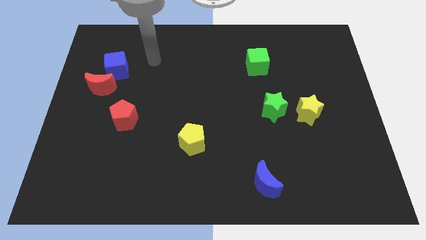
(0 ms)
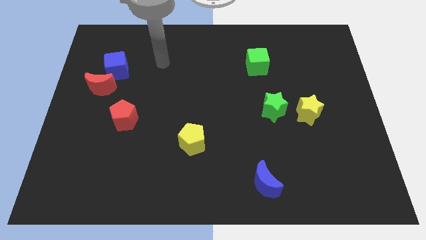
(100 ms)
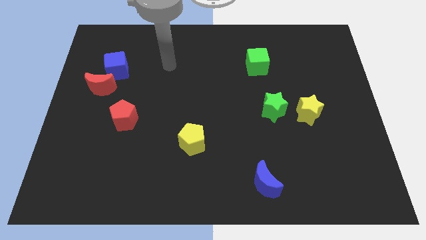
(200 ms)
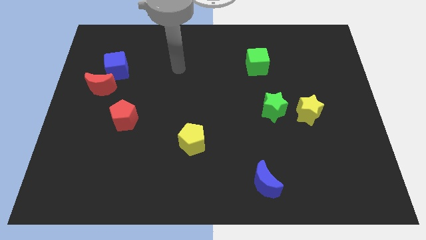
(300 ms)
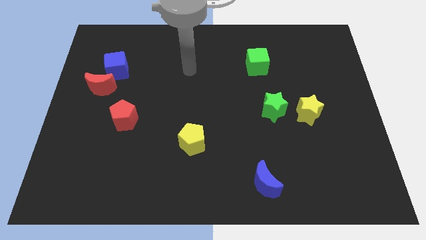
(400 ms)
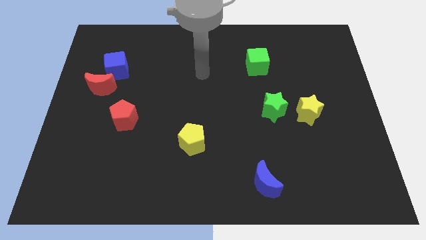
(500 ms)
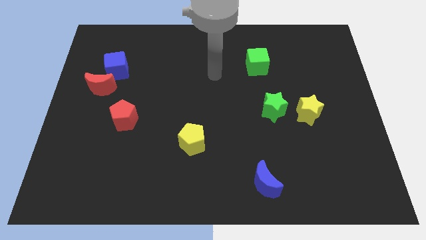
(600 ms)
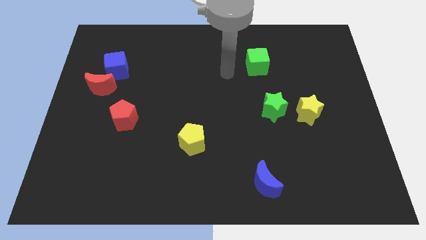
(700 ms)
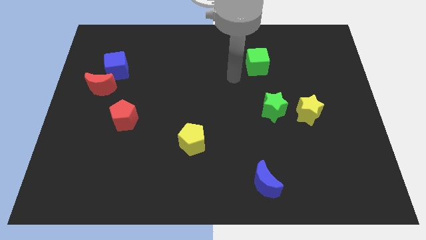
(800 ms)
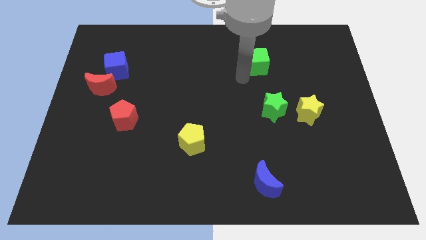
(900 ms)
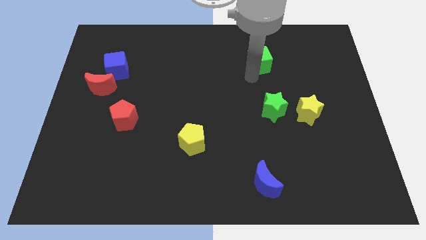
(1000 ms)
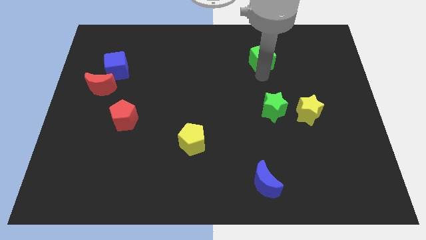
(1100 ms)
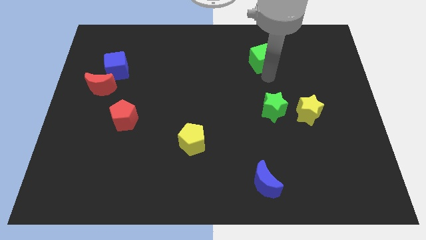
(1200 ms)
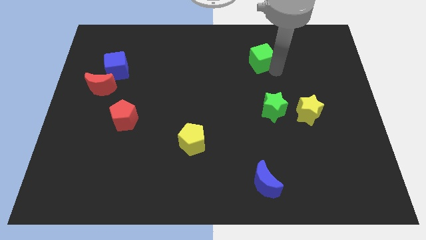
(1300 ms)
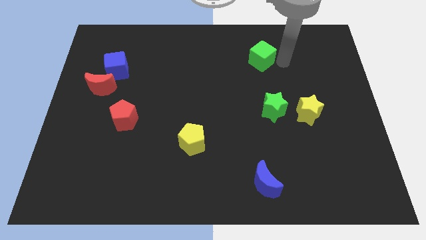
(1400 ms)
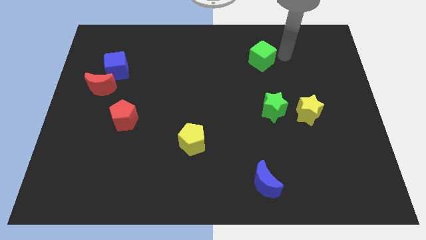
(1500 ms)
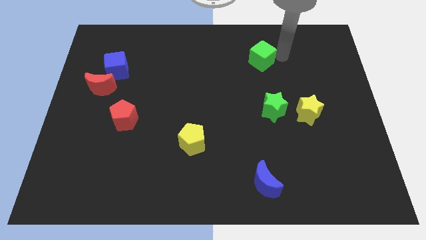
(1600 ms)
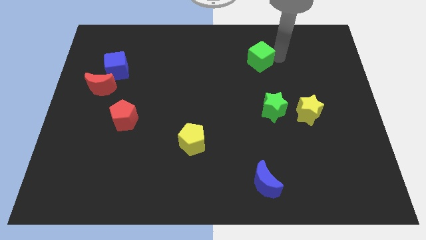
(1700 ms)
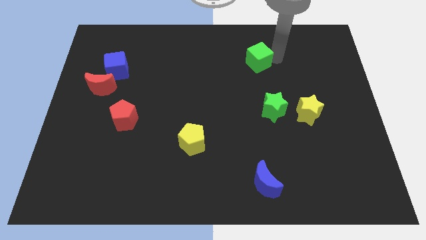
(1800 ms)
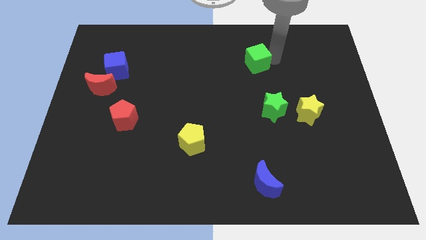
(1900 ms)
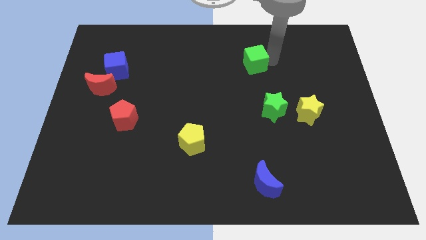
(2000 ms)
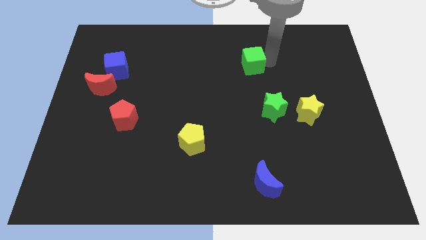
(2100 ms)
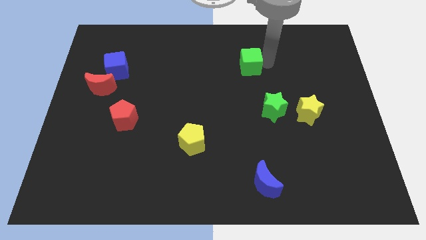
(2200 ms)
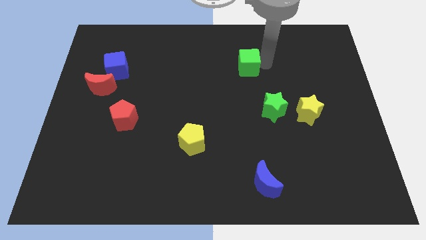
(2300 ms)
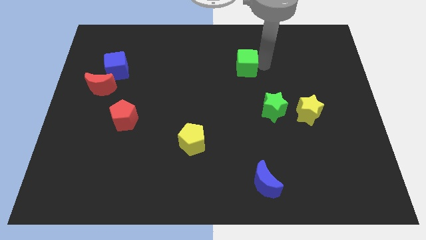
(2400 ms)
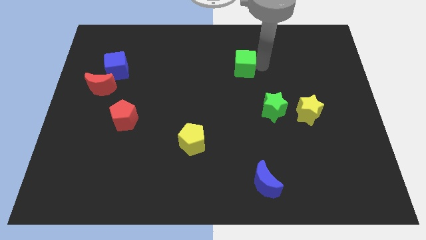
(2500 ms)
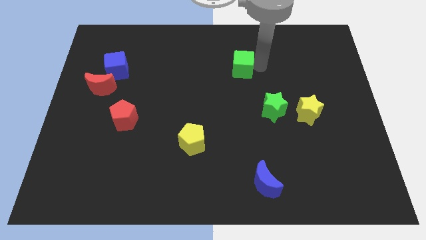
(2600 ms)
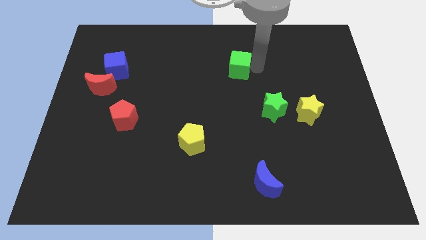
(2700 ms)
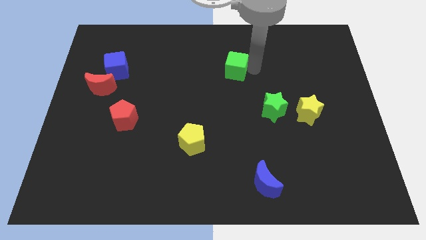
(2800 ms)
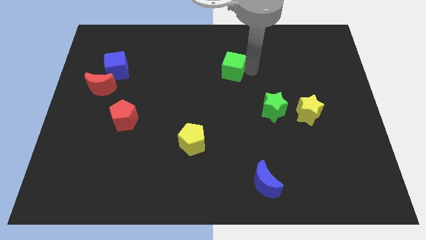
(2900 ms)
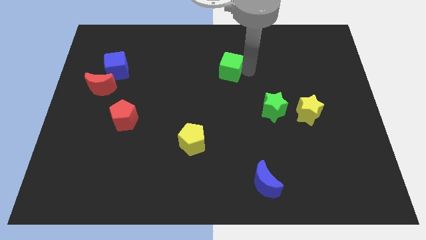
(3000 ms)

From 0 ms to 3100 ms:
move the green cube a bit left

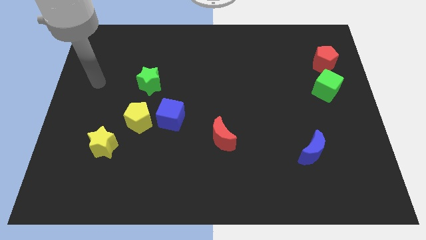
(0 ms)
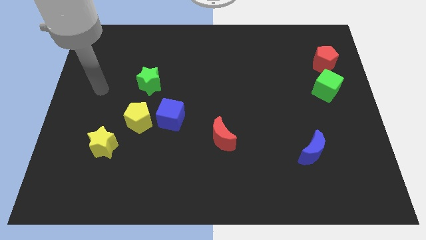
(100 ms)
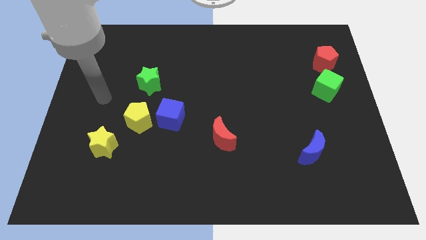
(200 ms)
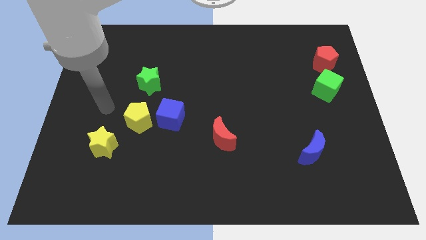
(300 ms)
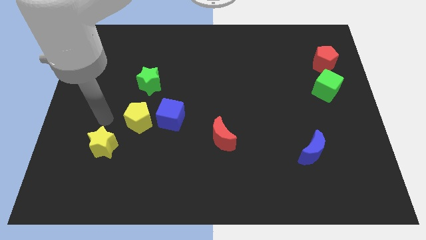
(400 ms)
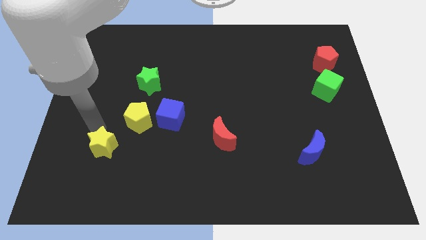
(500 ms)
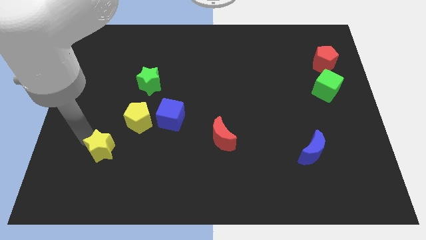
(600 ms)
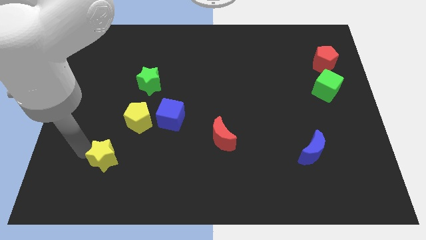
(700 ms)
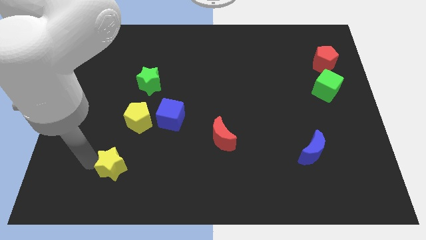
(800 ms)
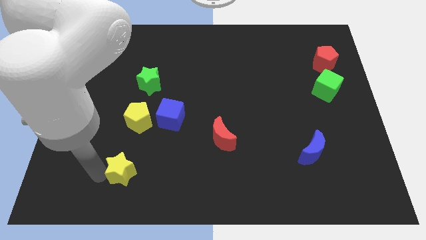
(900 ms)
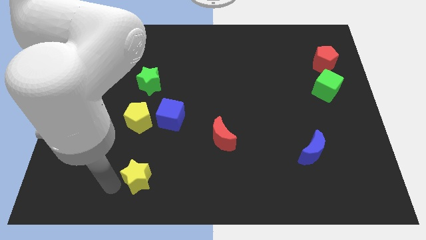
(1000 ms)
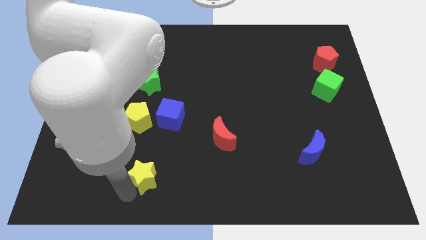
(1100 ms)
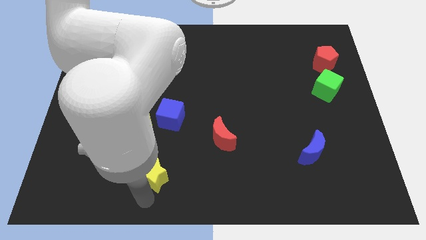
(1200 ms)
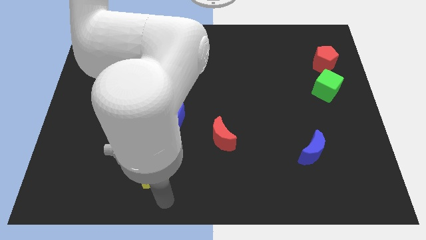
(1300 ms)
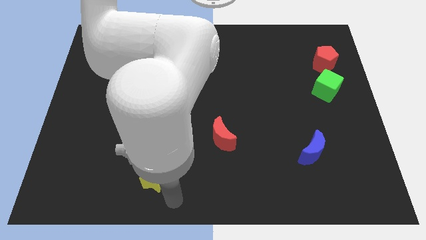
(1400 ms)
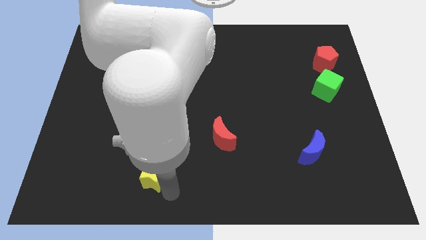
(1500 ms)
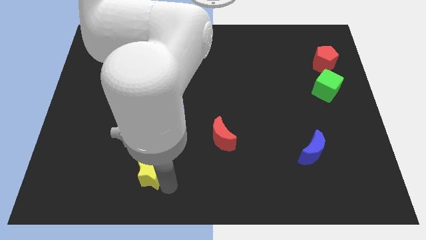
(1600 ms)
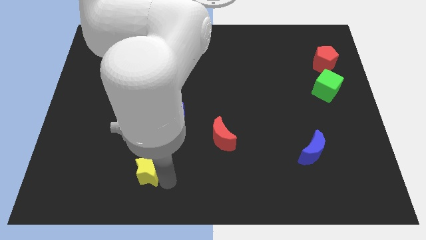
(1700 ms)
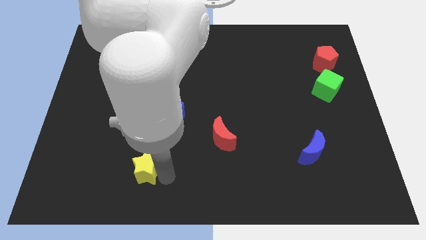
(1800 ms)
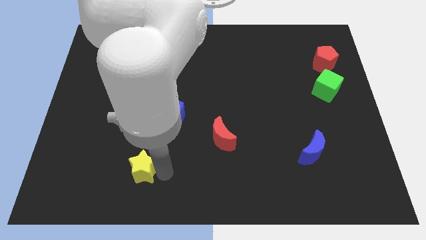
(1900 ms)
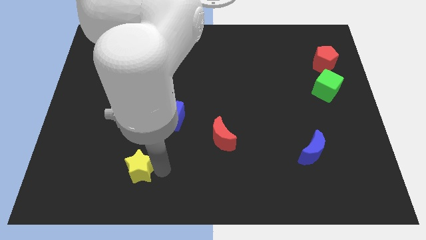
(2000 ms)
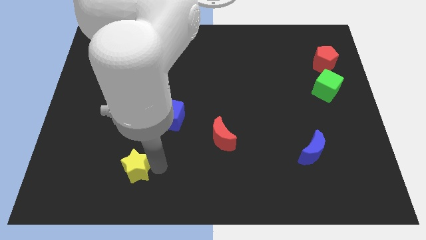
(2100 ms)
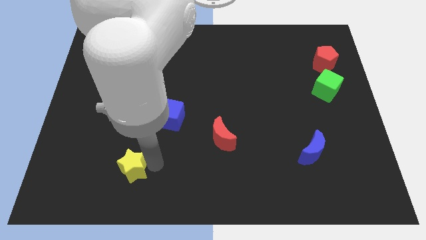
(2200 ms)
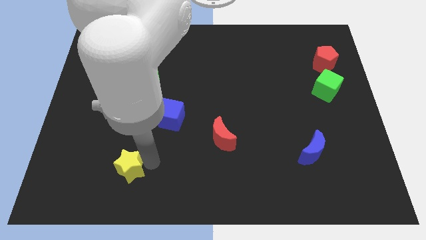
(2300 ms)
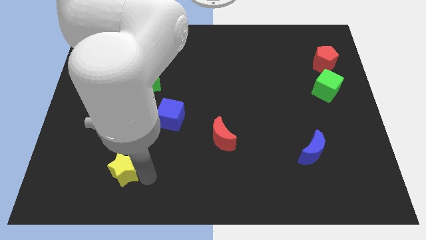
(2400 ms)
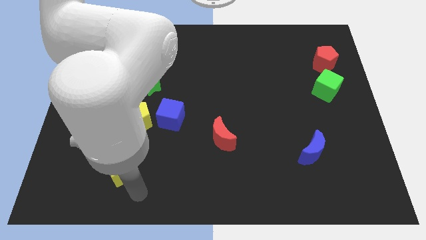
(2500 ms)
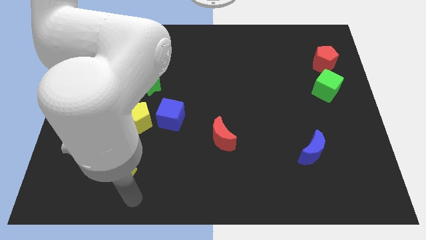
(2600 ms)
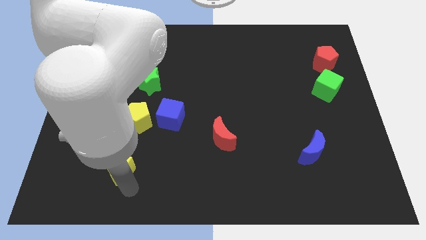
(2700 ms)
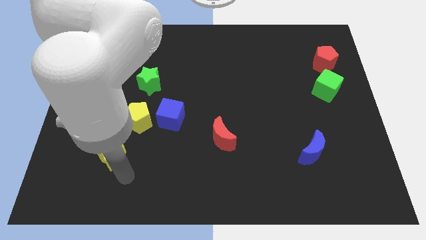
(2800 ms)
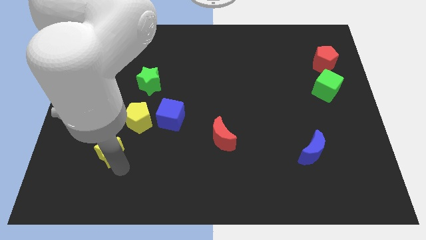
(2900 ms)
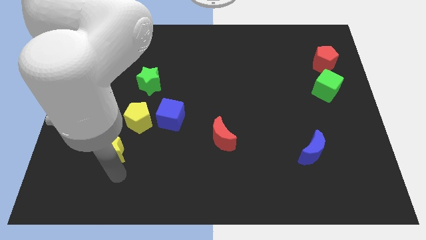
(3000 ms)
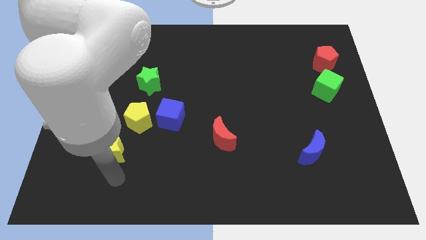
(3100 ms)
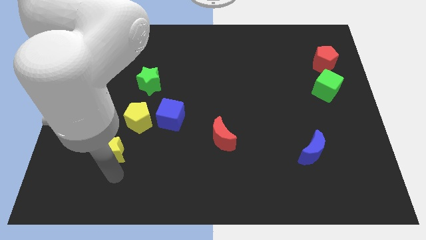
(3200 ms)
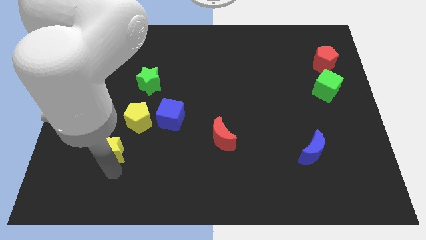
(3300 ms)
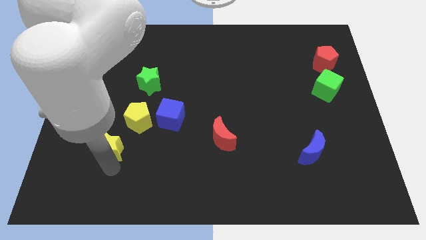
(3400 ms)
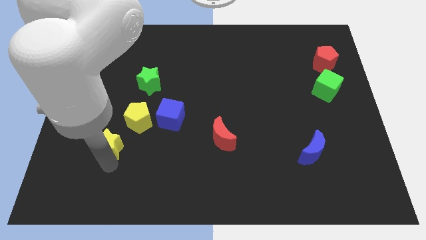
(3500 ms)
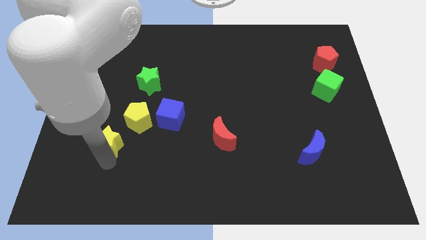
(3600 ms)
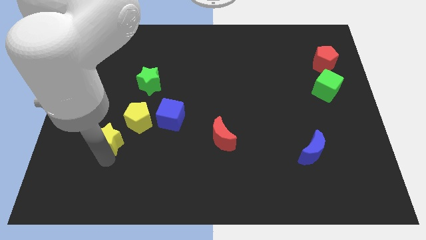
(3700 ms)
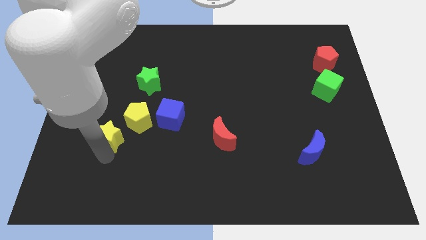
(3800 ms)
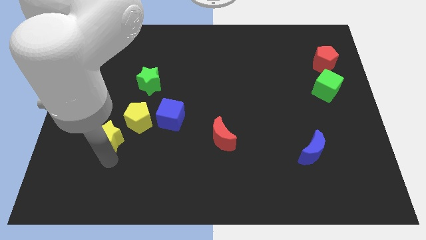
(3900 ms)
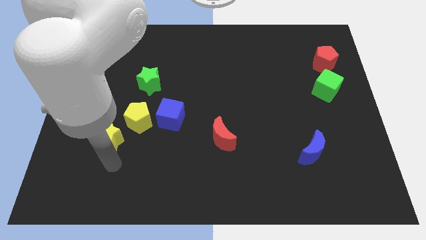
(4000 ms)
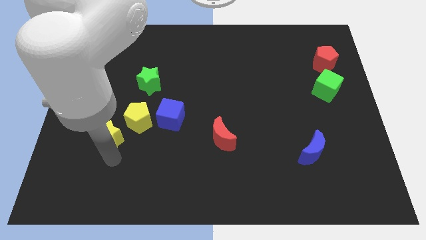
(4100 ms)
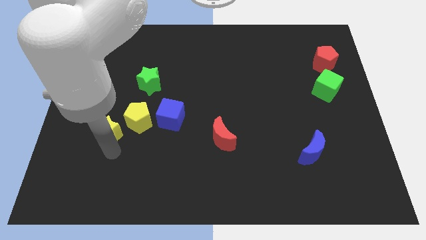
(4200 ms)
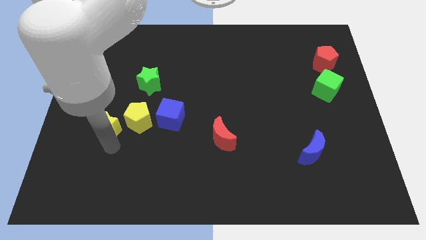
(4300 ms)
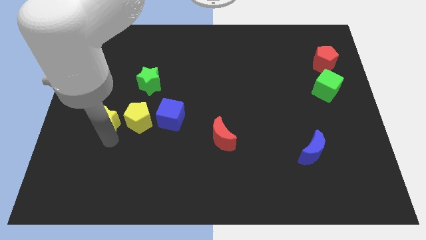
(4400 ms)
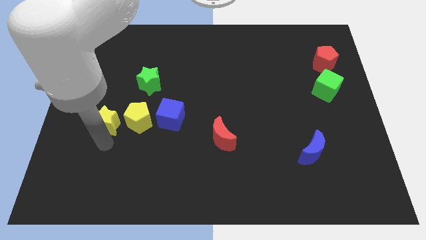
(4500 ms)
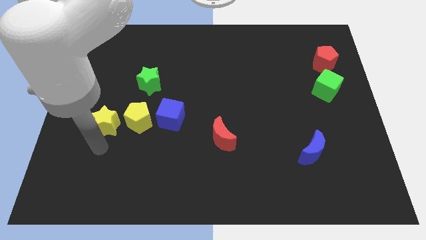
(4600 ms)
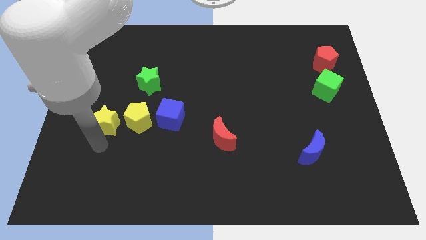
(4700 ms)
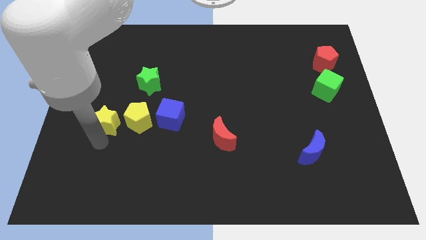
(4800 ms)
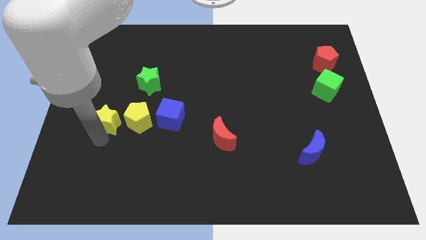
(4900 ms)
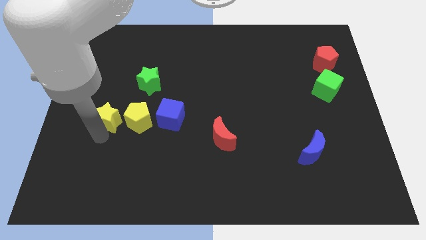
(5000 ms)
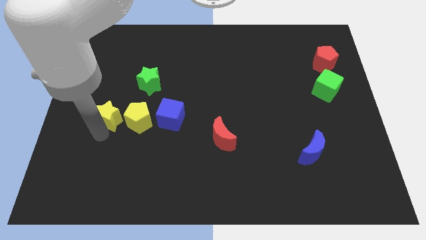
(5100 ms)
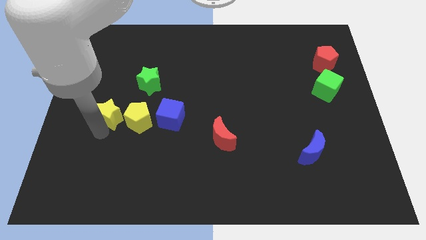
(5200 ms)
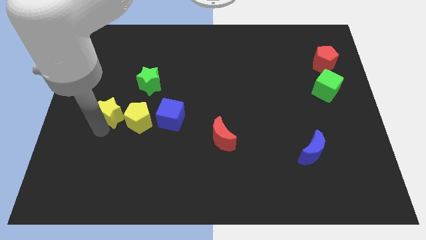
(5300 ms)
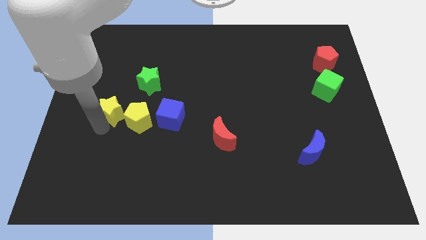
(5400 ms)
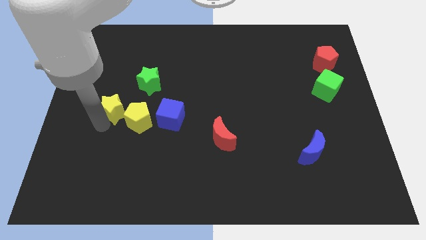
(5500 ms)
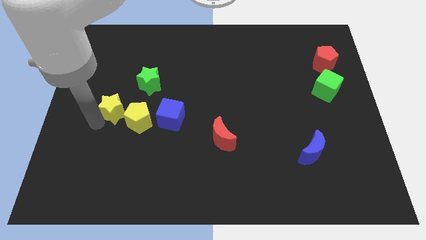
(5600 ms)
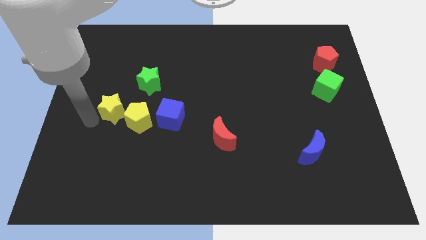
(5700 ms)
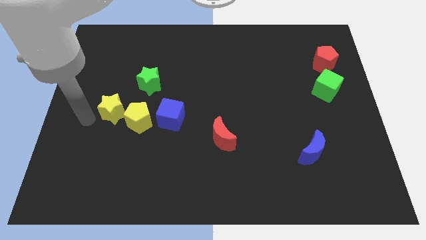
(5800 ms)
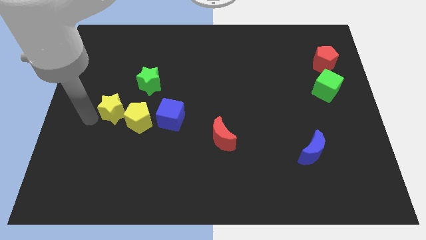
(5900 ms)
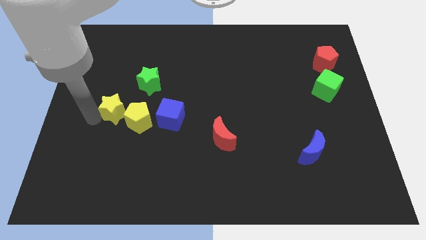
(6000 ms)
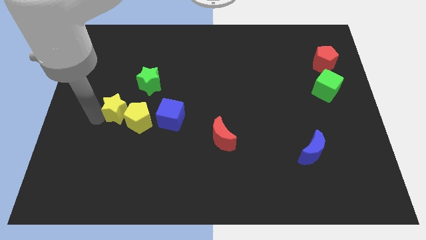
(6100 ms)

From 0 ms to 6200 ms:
move the yellow star a little bit up and to the right
